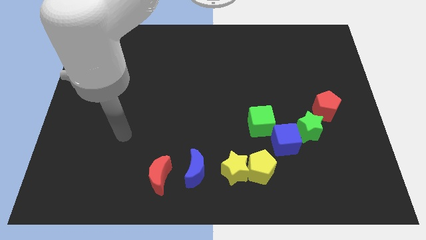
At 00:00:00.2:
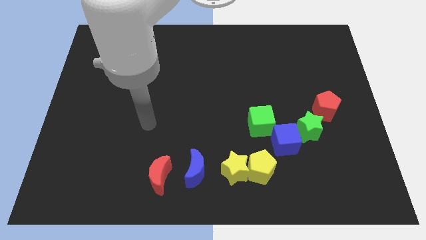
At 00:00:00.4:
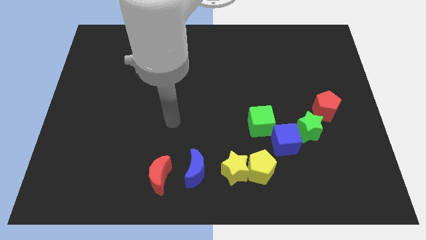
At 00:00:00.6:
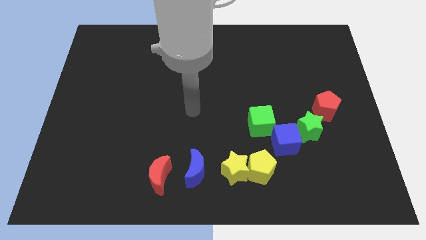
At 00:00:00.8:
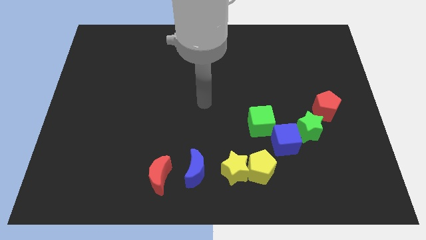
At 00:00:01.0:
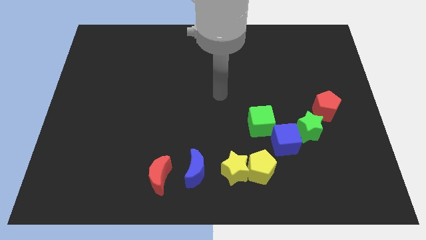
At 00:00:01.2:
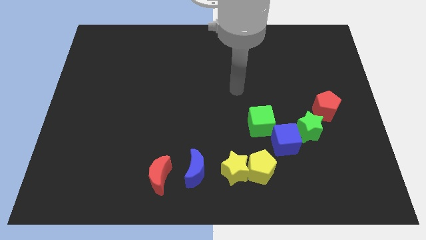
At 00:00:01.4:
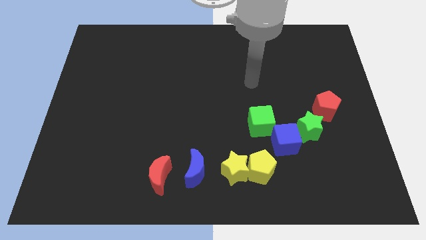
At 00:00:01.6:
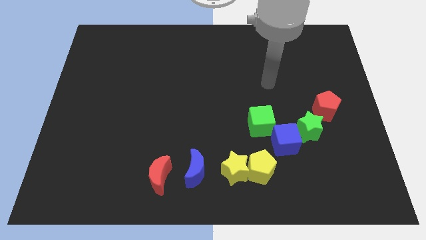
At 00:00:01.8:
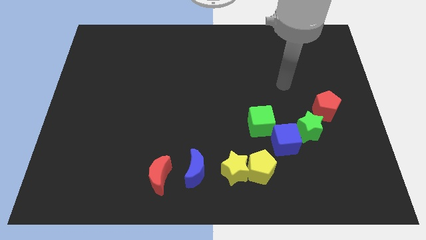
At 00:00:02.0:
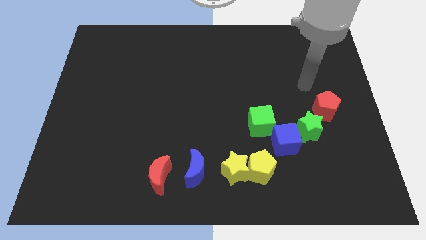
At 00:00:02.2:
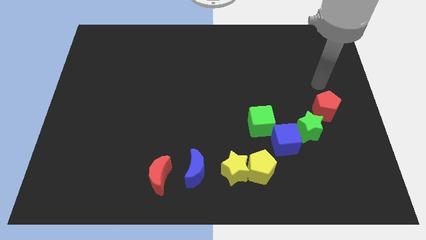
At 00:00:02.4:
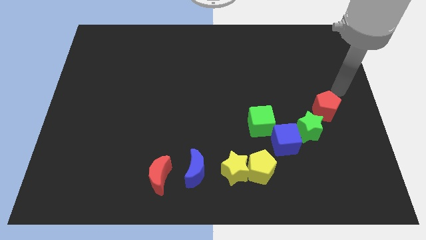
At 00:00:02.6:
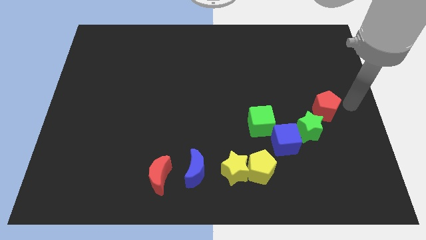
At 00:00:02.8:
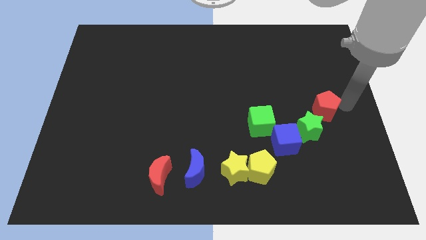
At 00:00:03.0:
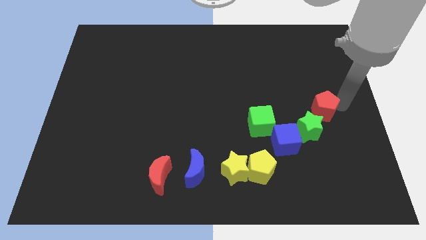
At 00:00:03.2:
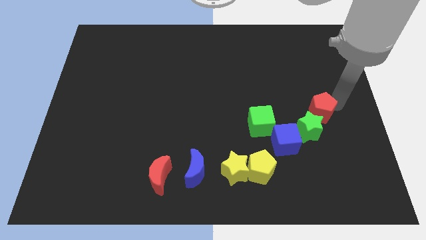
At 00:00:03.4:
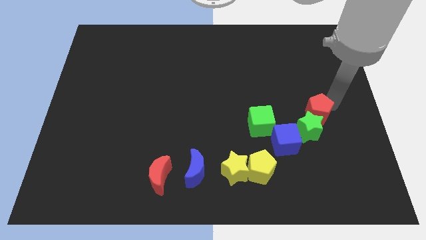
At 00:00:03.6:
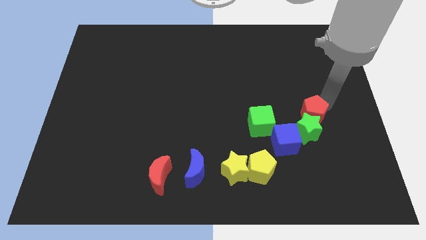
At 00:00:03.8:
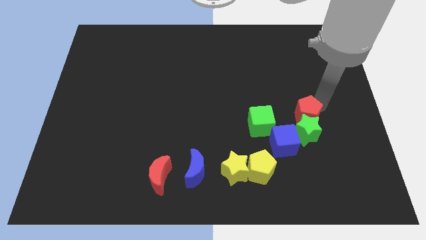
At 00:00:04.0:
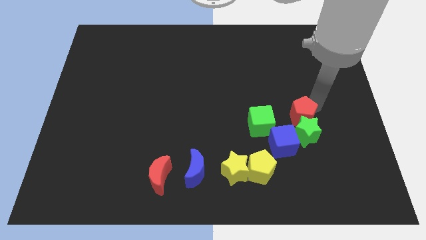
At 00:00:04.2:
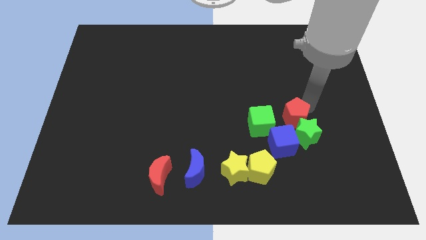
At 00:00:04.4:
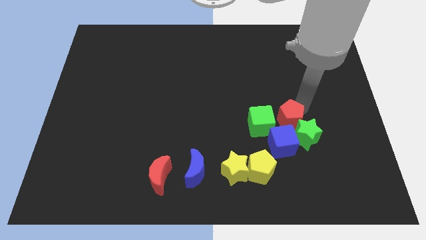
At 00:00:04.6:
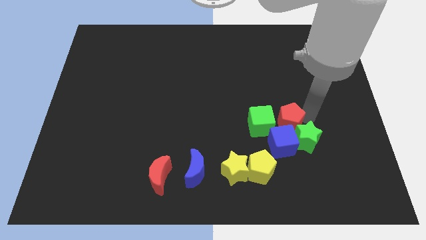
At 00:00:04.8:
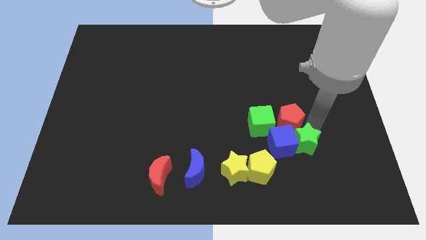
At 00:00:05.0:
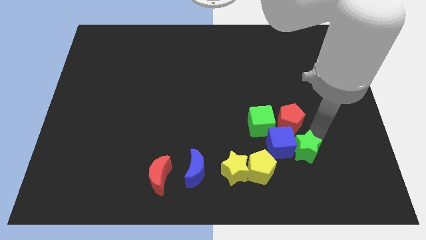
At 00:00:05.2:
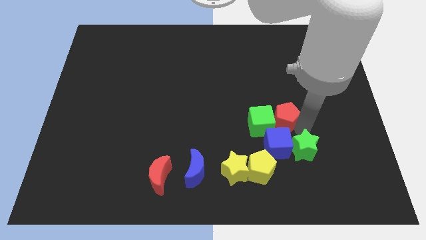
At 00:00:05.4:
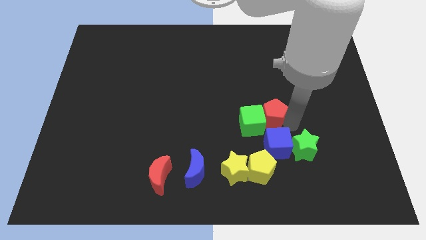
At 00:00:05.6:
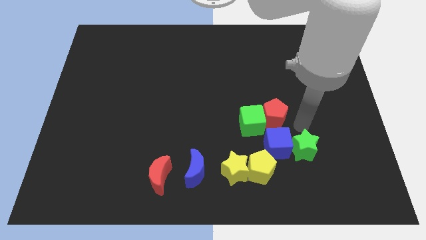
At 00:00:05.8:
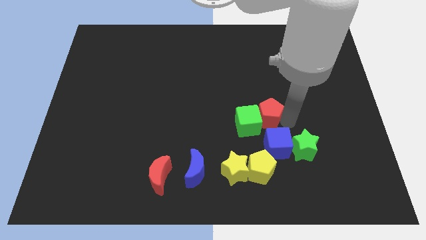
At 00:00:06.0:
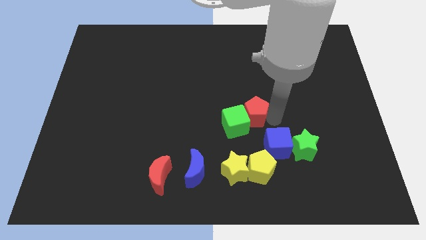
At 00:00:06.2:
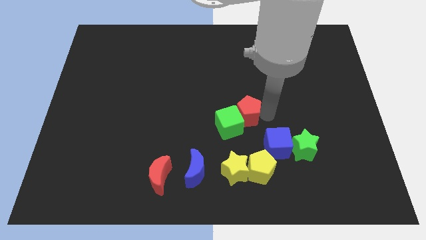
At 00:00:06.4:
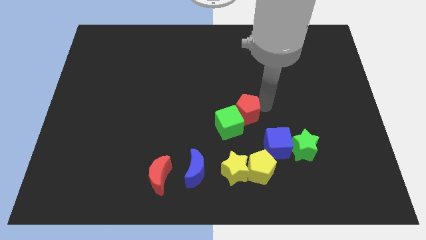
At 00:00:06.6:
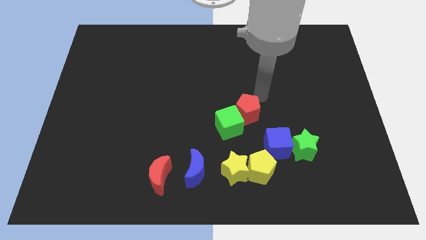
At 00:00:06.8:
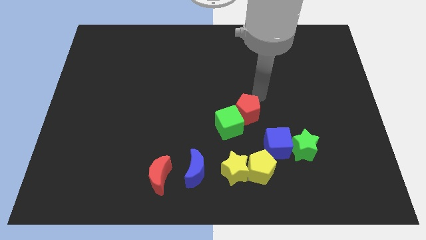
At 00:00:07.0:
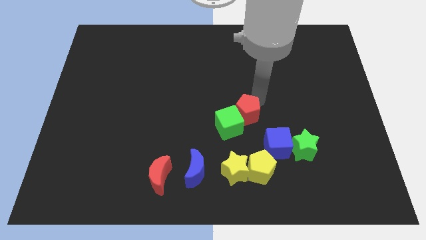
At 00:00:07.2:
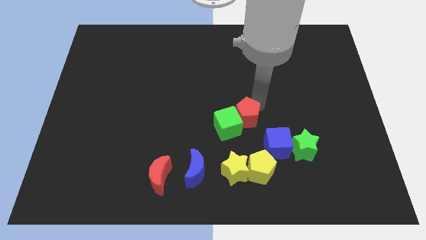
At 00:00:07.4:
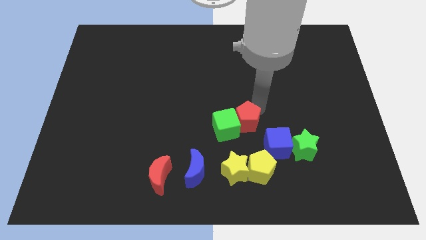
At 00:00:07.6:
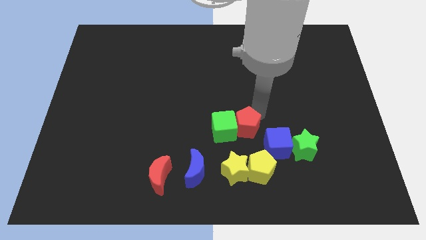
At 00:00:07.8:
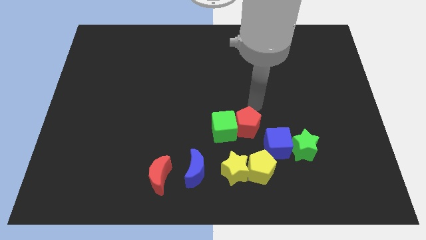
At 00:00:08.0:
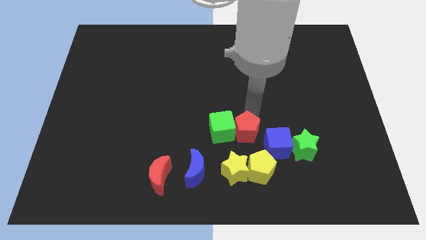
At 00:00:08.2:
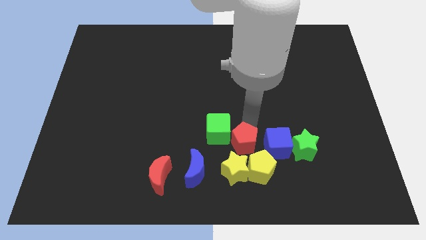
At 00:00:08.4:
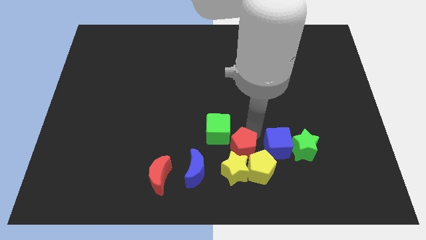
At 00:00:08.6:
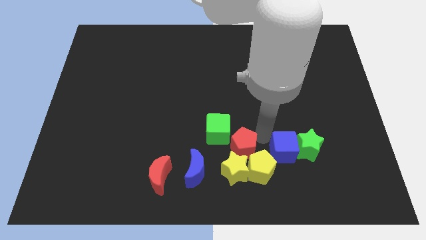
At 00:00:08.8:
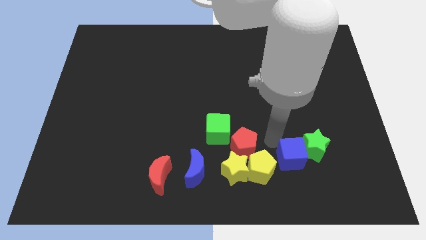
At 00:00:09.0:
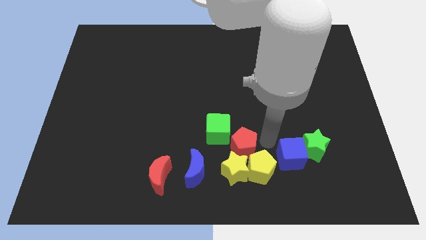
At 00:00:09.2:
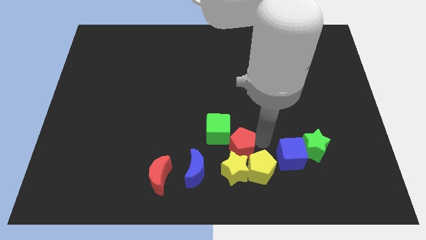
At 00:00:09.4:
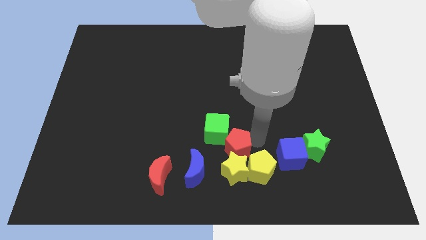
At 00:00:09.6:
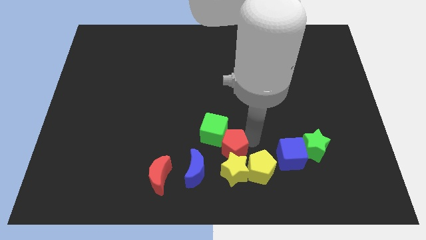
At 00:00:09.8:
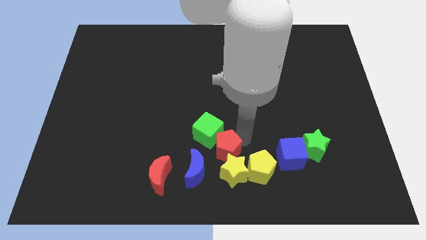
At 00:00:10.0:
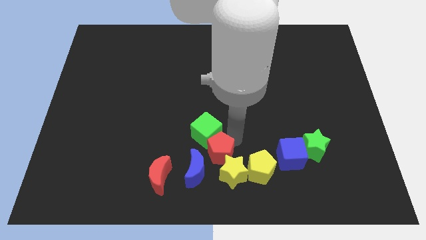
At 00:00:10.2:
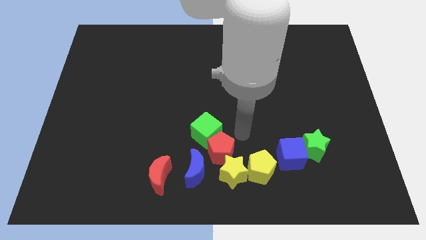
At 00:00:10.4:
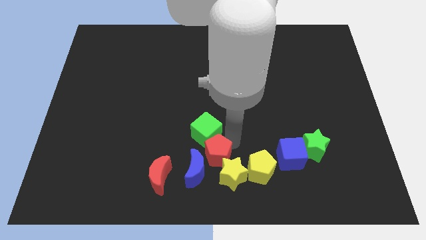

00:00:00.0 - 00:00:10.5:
put the red pentagon next to the blue moon

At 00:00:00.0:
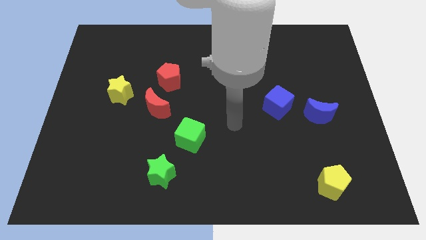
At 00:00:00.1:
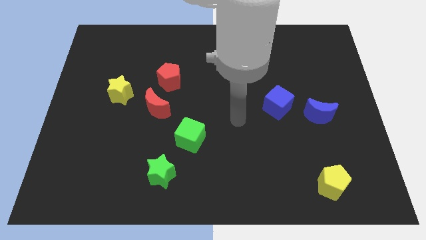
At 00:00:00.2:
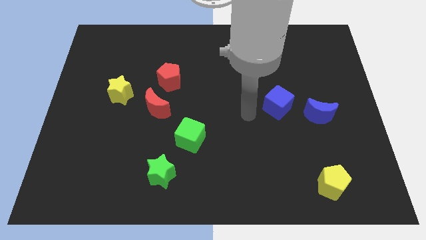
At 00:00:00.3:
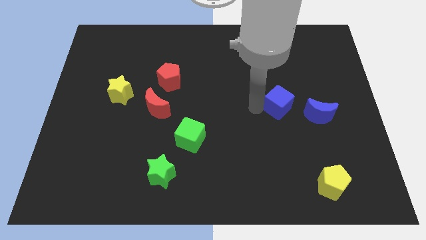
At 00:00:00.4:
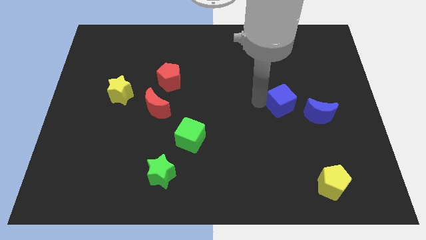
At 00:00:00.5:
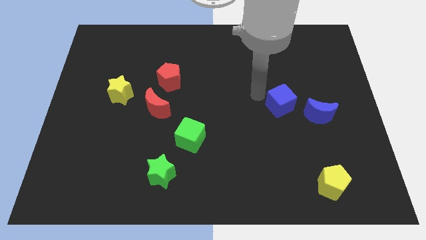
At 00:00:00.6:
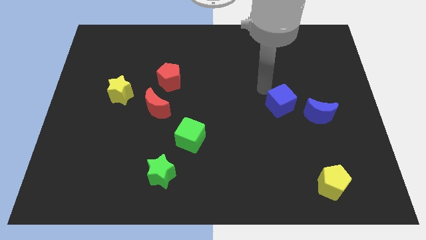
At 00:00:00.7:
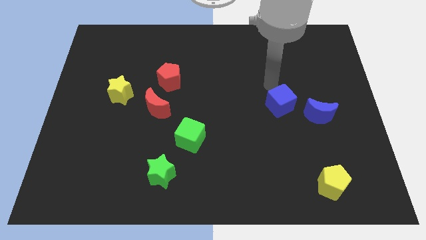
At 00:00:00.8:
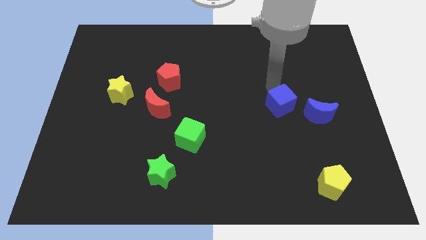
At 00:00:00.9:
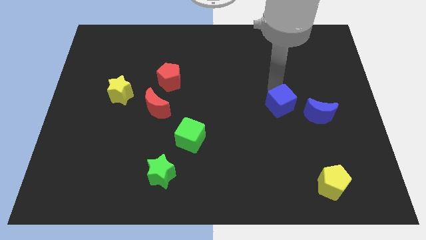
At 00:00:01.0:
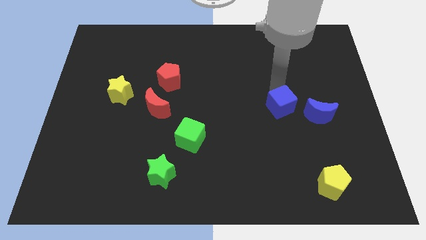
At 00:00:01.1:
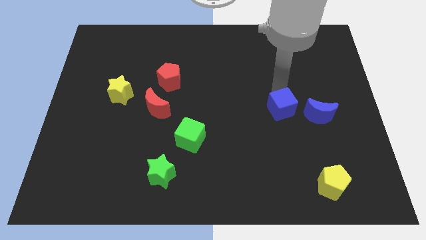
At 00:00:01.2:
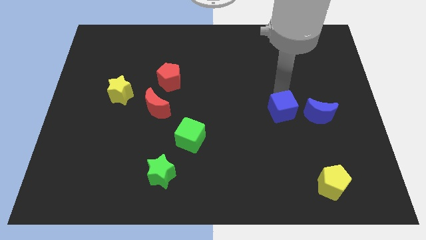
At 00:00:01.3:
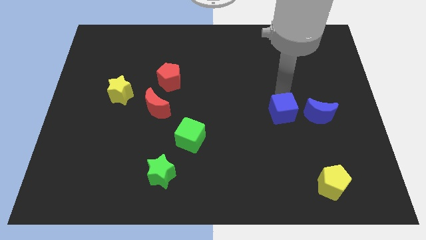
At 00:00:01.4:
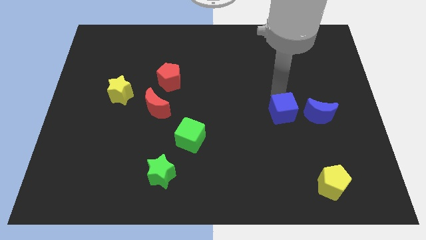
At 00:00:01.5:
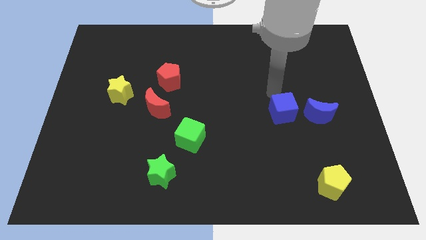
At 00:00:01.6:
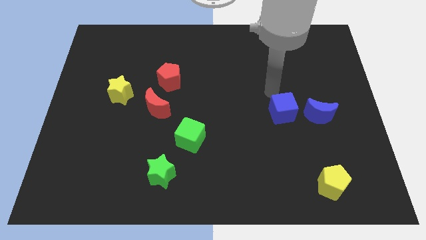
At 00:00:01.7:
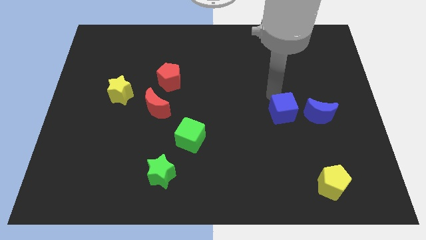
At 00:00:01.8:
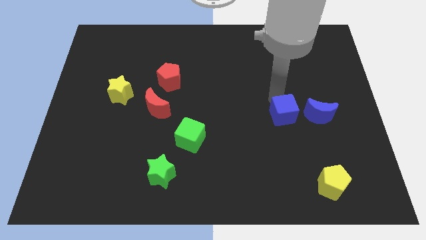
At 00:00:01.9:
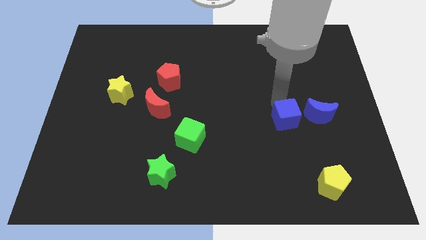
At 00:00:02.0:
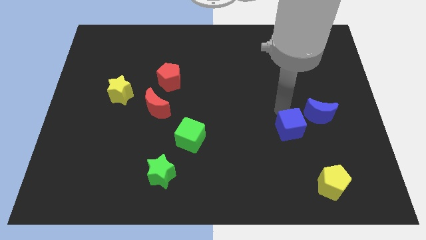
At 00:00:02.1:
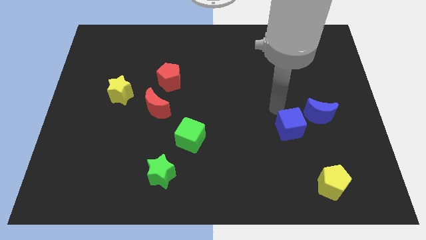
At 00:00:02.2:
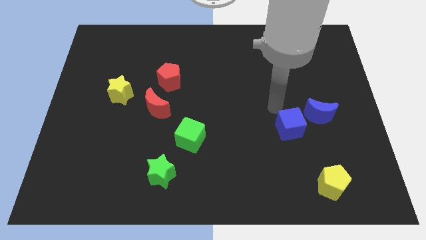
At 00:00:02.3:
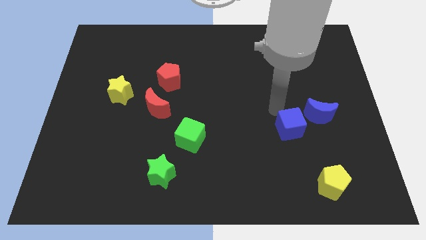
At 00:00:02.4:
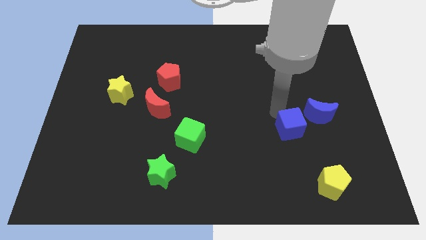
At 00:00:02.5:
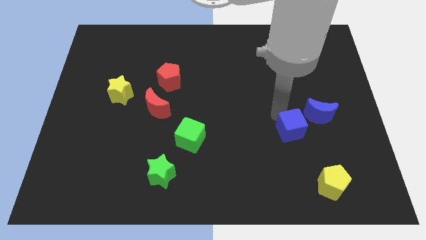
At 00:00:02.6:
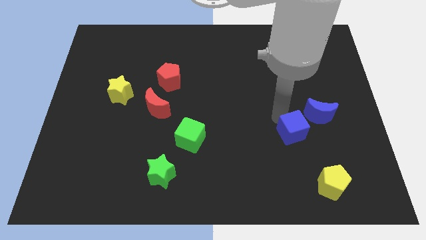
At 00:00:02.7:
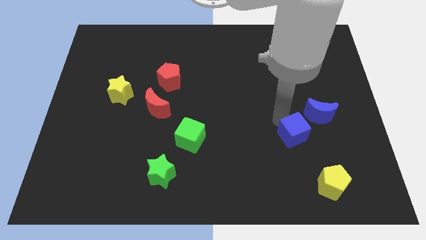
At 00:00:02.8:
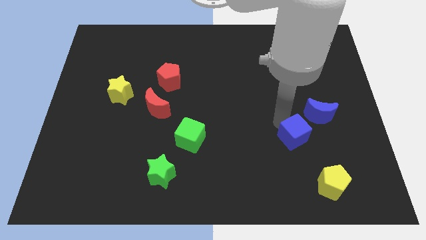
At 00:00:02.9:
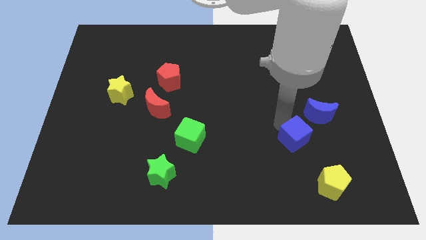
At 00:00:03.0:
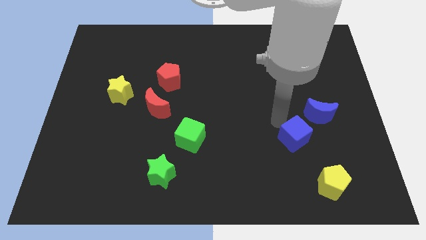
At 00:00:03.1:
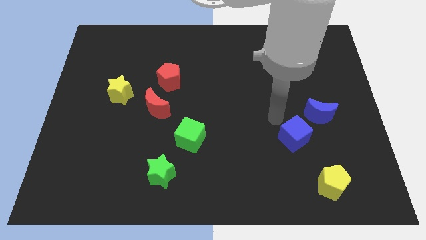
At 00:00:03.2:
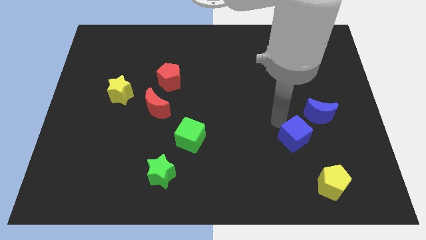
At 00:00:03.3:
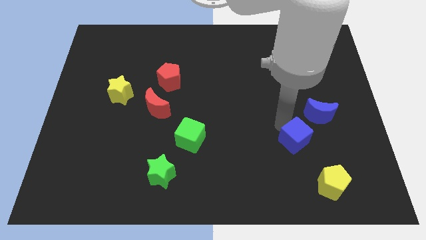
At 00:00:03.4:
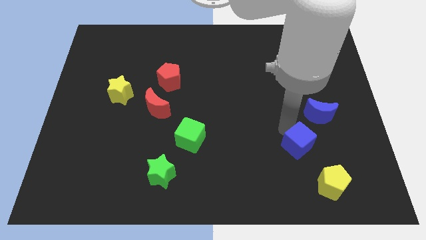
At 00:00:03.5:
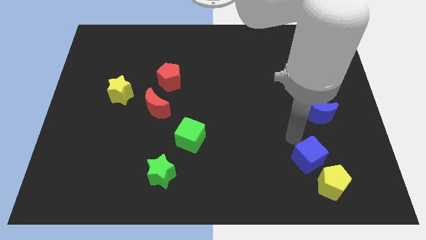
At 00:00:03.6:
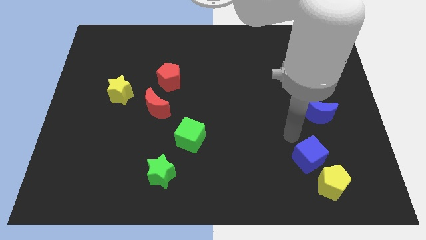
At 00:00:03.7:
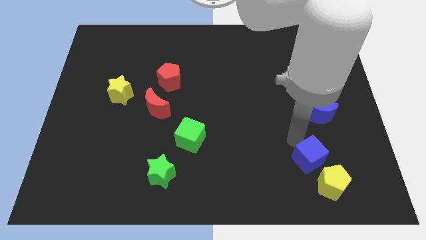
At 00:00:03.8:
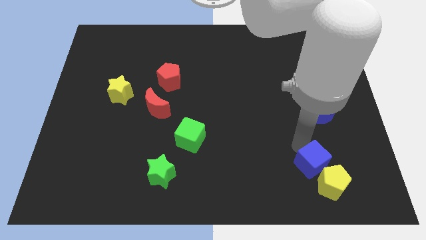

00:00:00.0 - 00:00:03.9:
slide the blue cube close to the yellow pentagon
